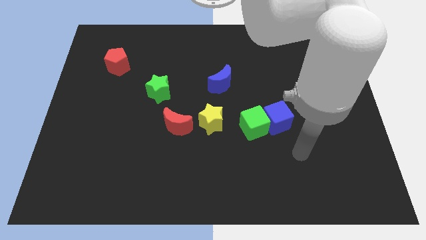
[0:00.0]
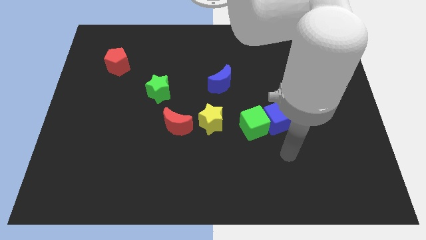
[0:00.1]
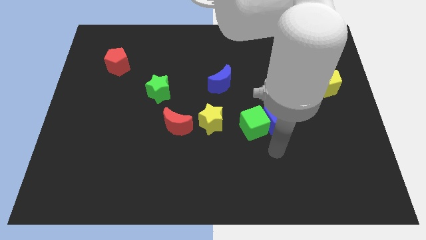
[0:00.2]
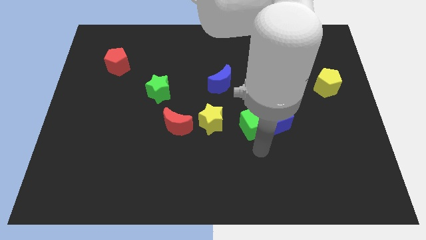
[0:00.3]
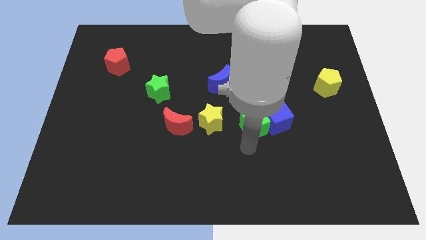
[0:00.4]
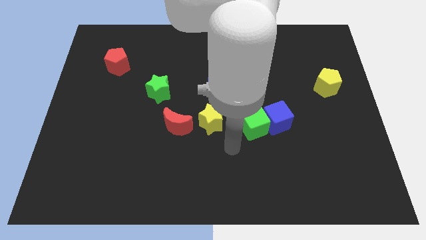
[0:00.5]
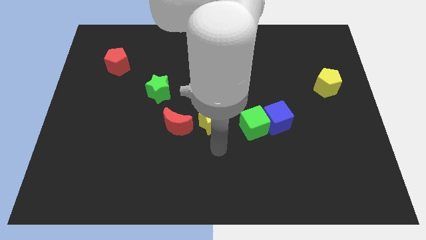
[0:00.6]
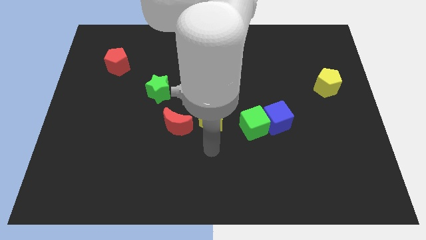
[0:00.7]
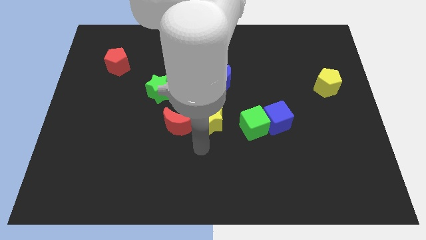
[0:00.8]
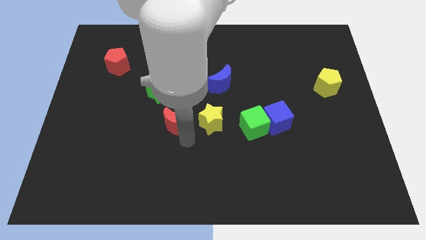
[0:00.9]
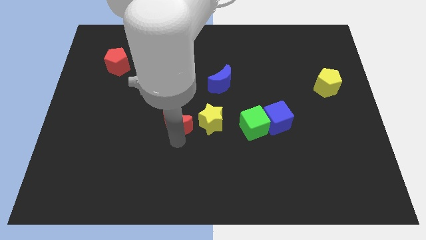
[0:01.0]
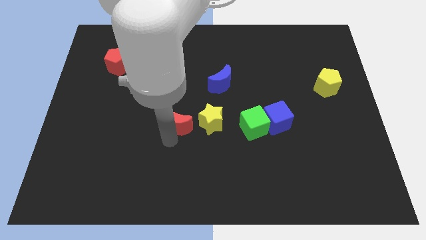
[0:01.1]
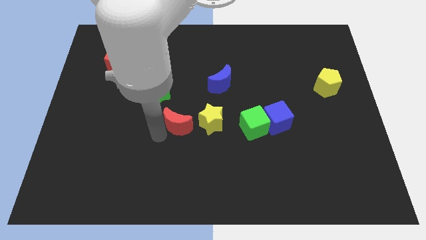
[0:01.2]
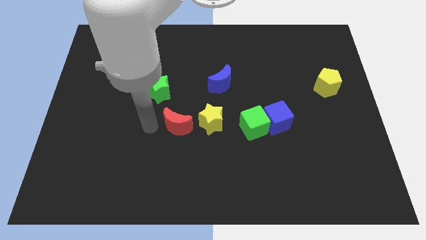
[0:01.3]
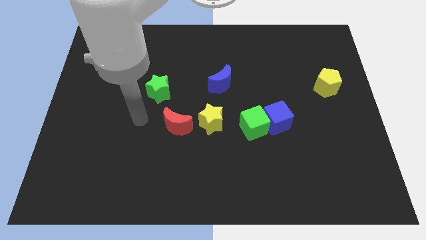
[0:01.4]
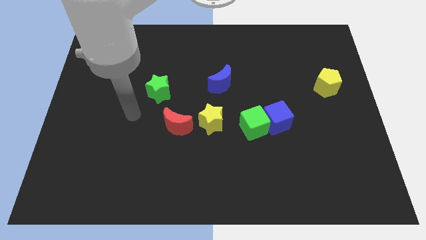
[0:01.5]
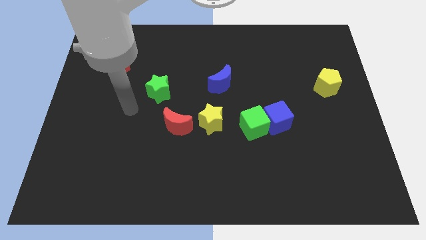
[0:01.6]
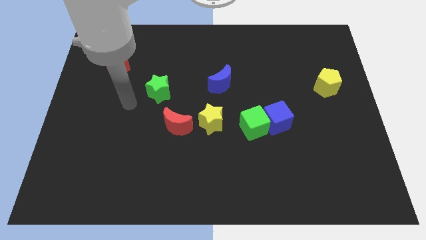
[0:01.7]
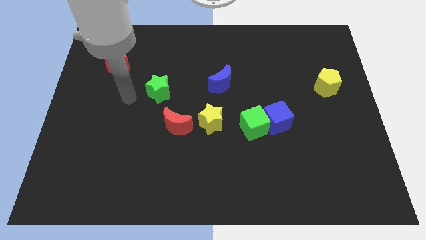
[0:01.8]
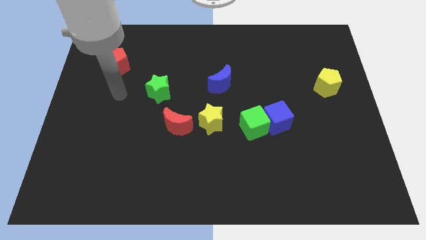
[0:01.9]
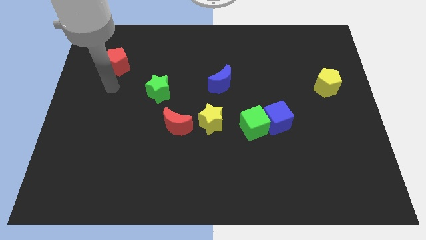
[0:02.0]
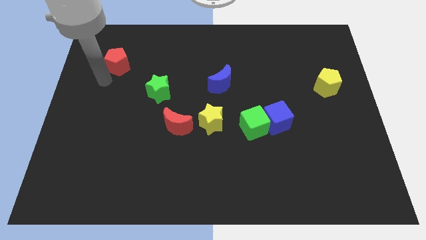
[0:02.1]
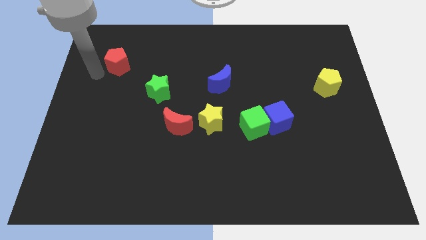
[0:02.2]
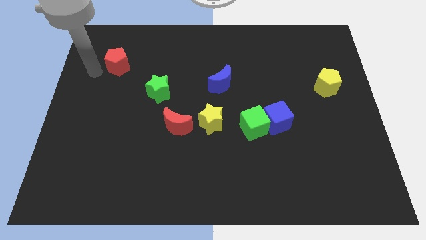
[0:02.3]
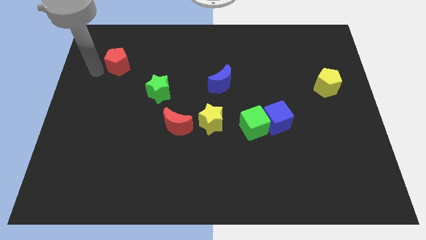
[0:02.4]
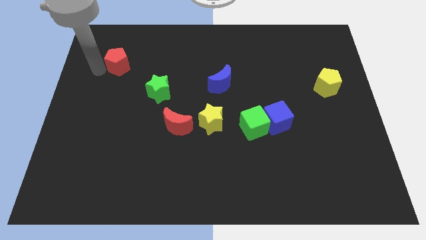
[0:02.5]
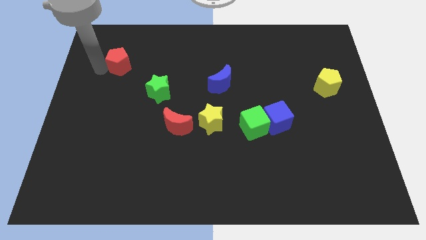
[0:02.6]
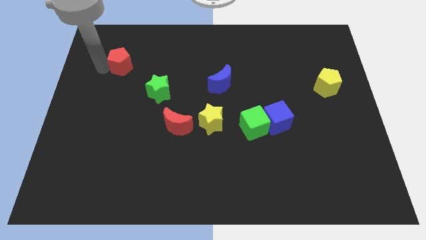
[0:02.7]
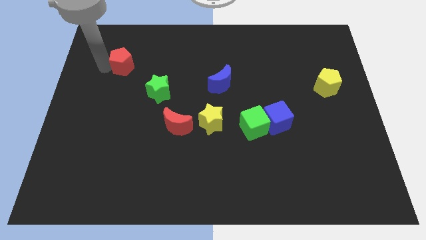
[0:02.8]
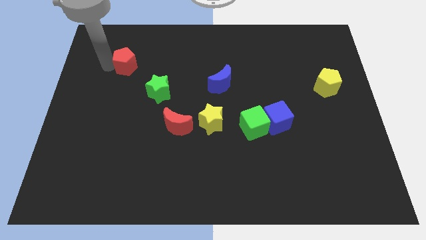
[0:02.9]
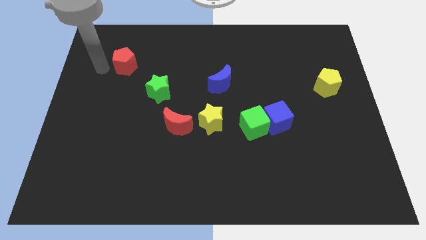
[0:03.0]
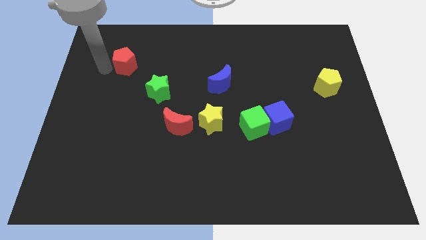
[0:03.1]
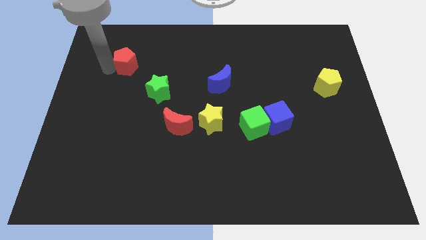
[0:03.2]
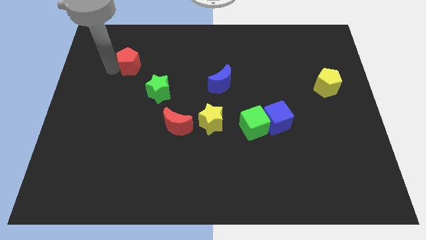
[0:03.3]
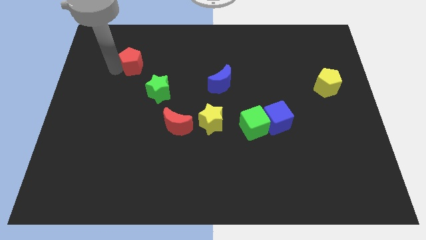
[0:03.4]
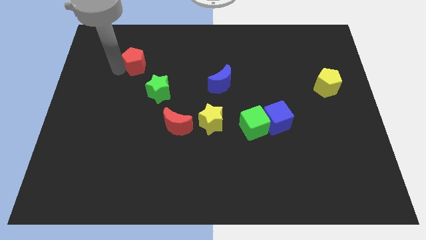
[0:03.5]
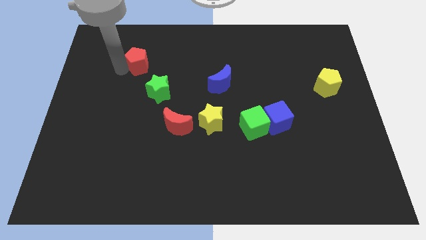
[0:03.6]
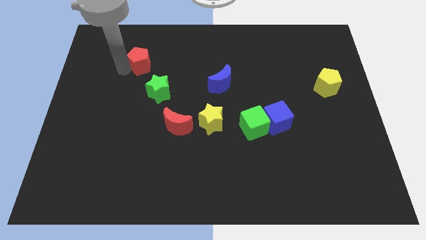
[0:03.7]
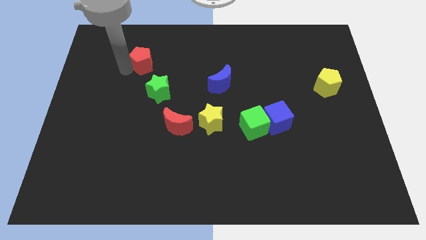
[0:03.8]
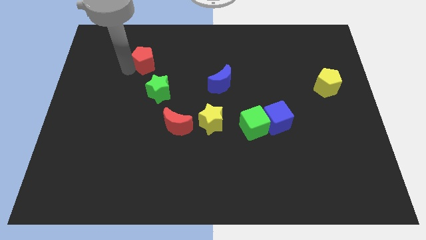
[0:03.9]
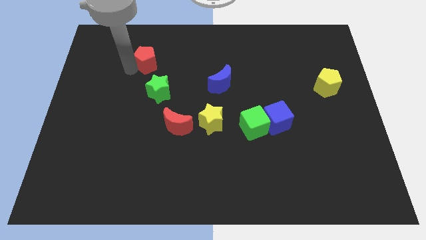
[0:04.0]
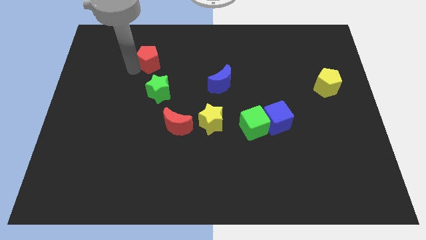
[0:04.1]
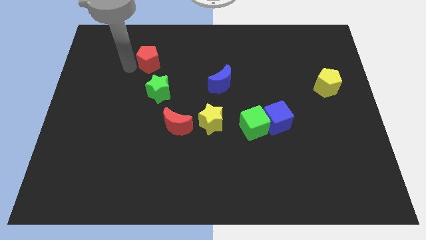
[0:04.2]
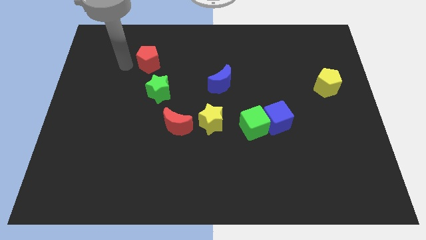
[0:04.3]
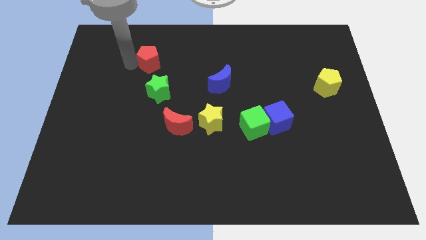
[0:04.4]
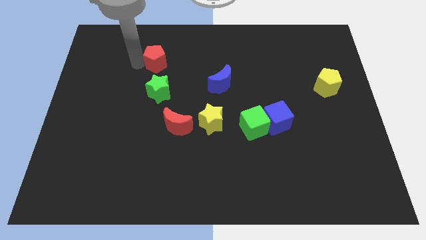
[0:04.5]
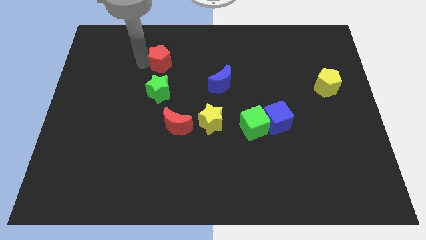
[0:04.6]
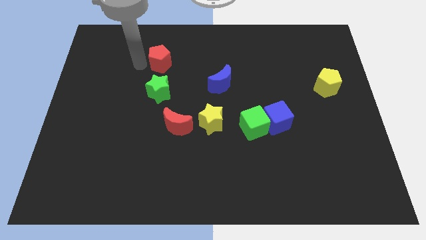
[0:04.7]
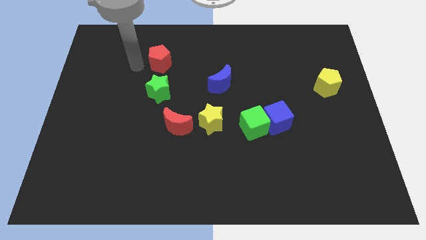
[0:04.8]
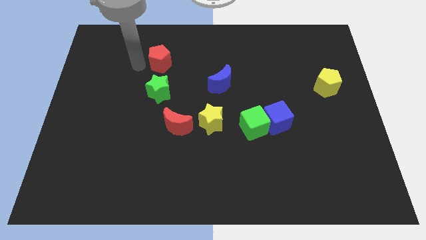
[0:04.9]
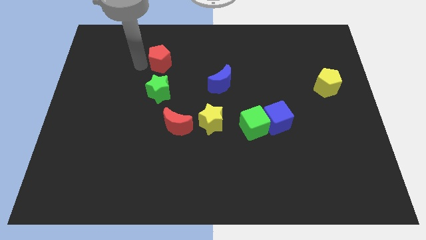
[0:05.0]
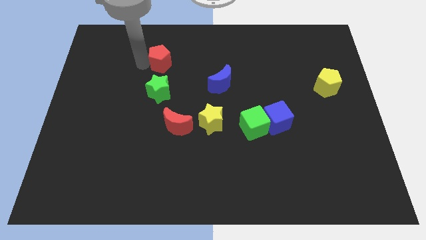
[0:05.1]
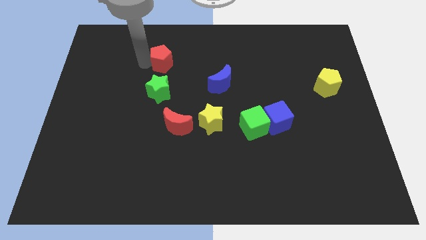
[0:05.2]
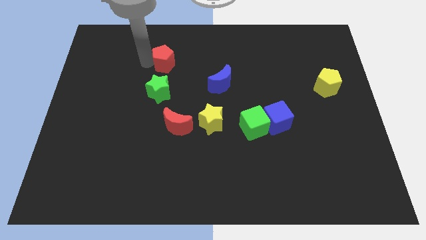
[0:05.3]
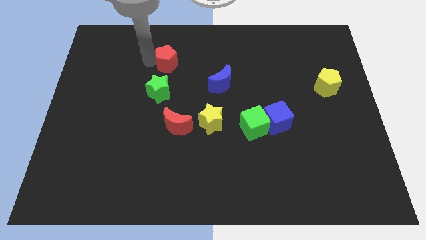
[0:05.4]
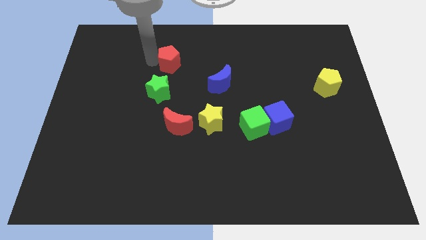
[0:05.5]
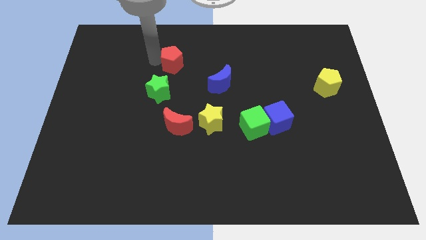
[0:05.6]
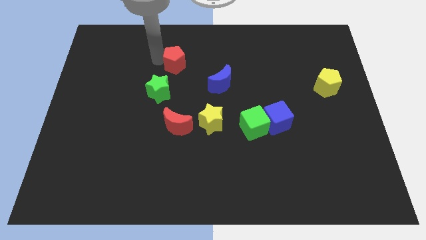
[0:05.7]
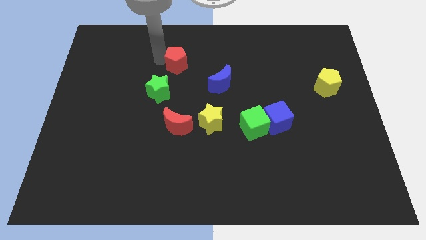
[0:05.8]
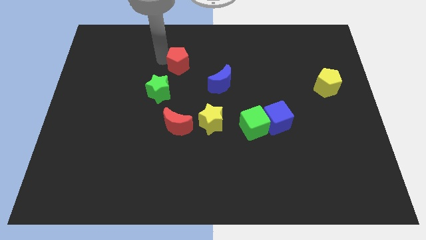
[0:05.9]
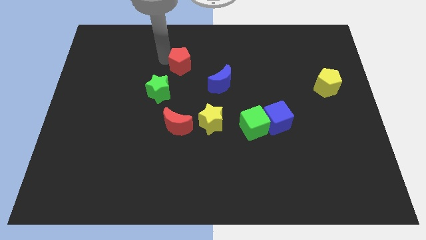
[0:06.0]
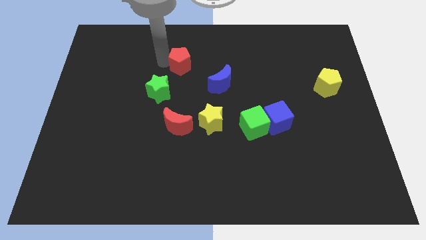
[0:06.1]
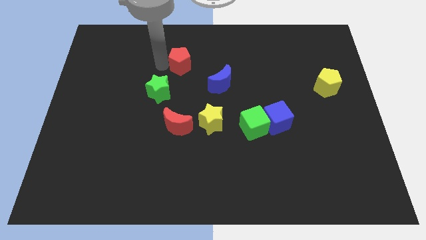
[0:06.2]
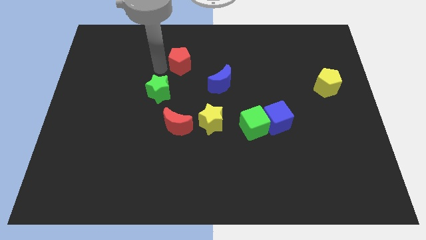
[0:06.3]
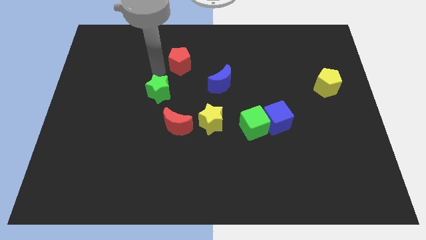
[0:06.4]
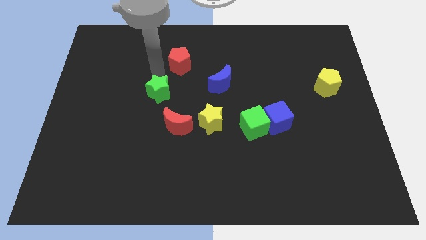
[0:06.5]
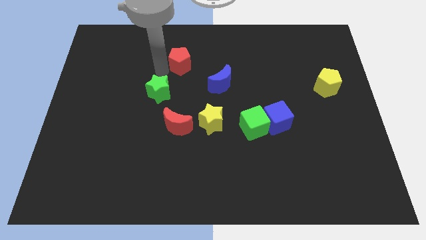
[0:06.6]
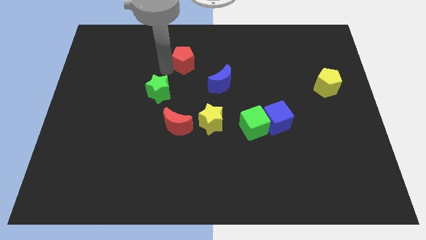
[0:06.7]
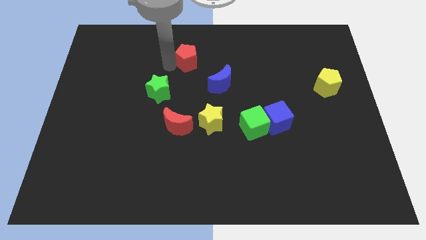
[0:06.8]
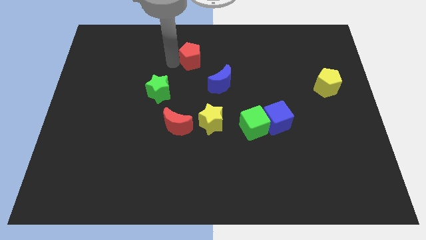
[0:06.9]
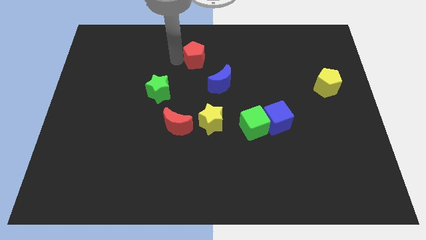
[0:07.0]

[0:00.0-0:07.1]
move the red pentagon right

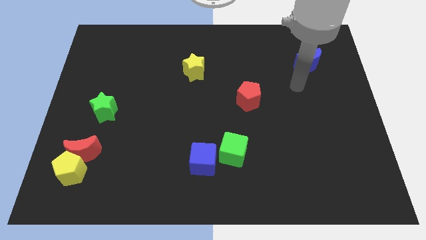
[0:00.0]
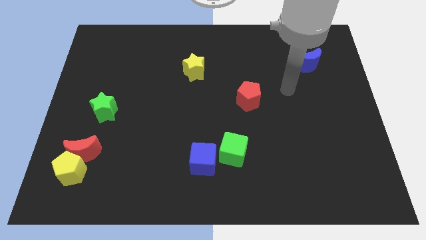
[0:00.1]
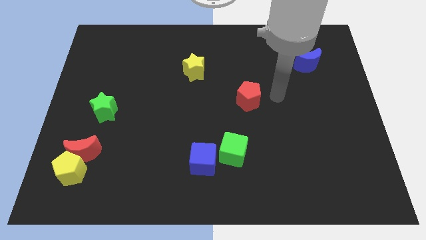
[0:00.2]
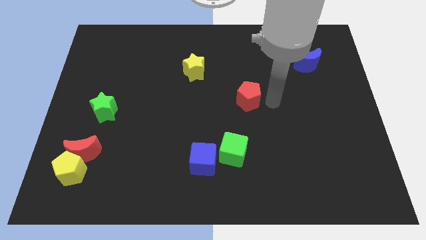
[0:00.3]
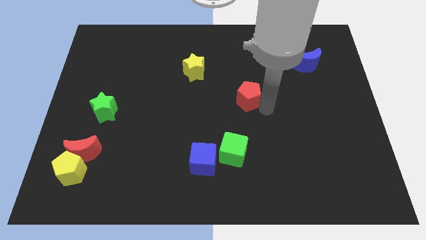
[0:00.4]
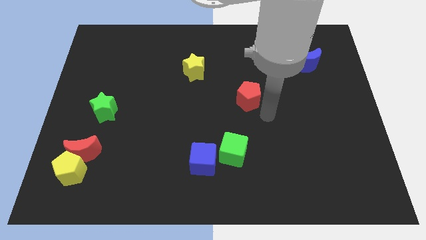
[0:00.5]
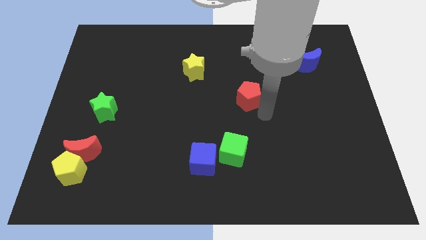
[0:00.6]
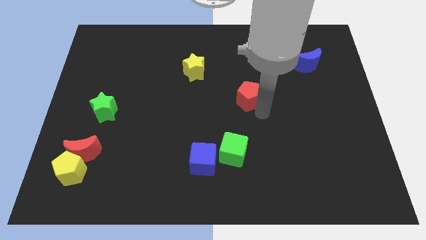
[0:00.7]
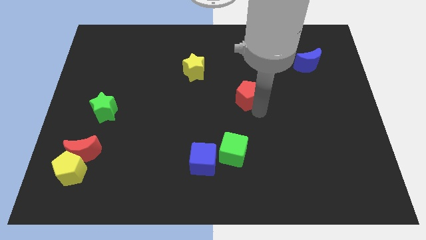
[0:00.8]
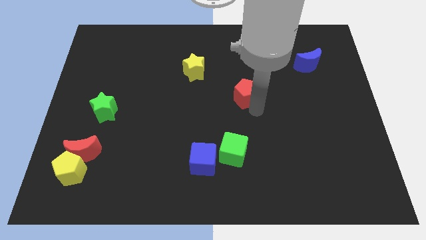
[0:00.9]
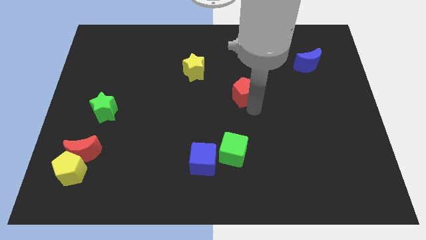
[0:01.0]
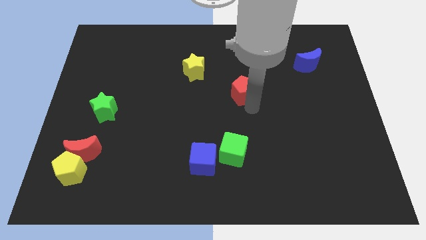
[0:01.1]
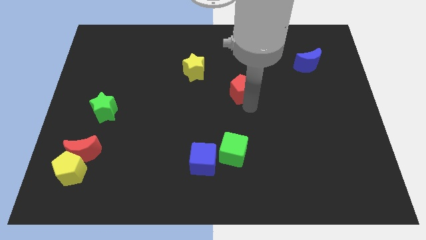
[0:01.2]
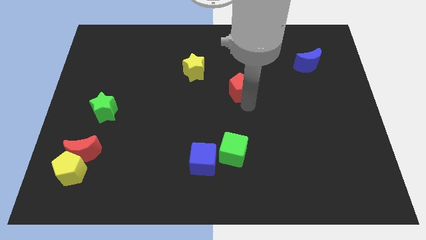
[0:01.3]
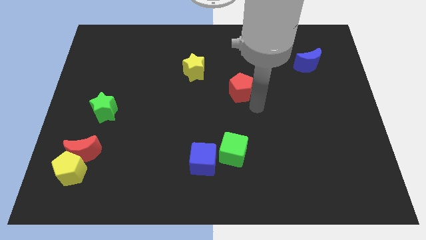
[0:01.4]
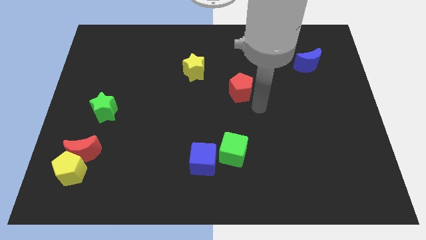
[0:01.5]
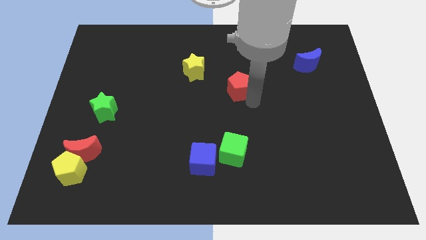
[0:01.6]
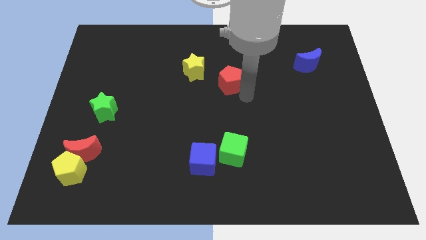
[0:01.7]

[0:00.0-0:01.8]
push the red pentagon upwards and to the left diagonally somewhat
